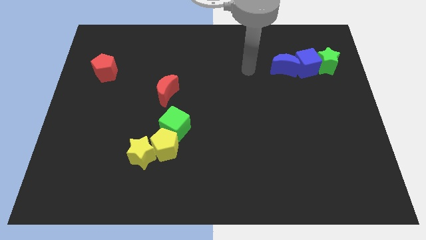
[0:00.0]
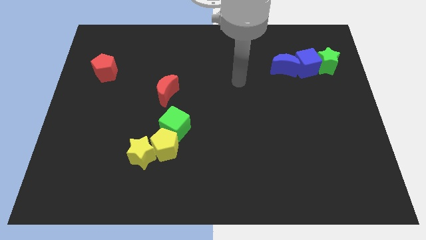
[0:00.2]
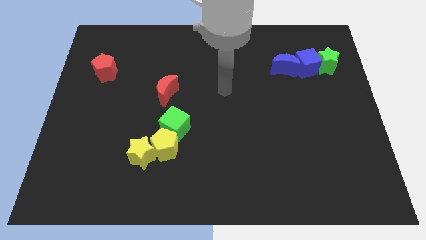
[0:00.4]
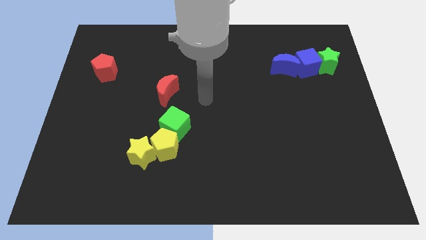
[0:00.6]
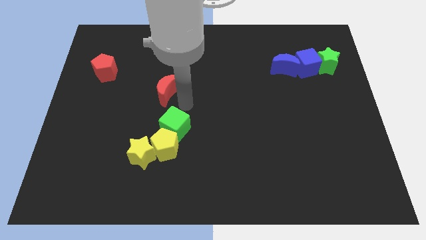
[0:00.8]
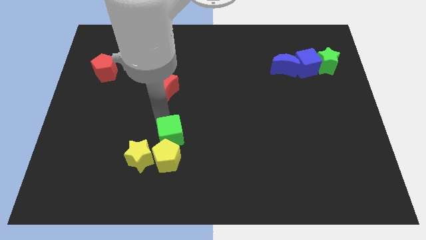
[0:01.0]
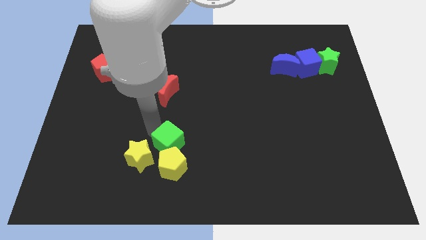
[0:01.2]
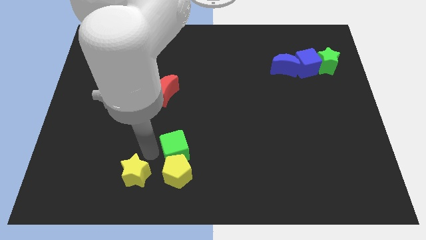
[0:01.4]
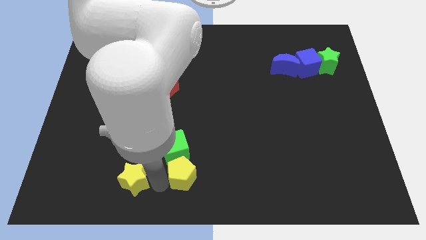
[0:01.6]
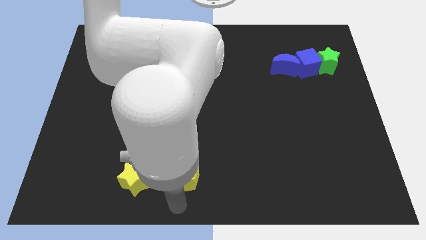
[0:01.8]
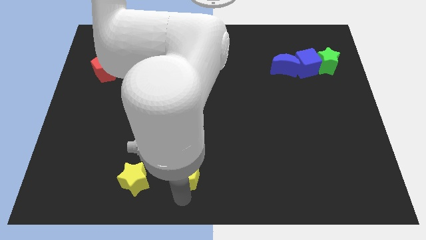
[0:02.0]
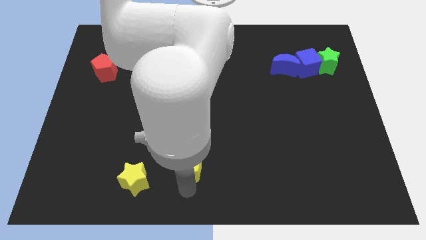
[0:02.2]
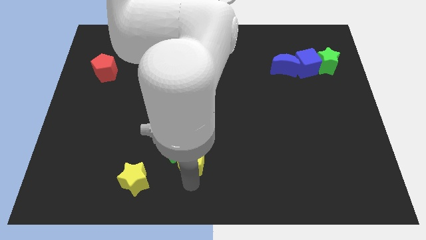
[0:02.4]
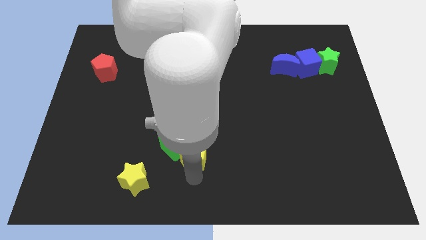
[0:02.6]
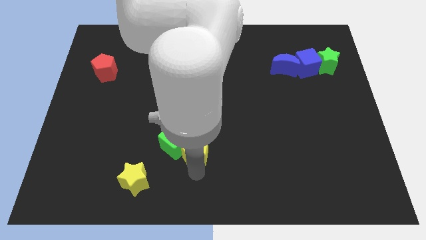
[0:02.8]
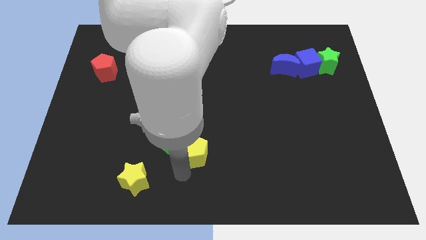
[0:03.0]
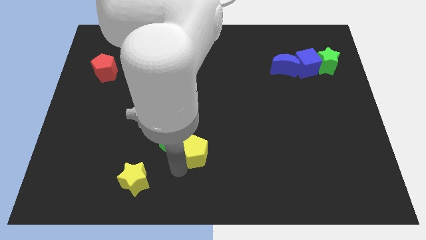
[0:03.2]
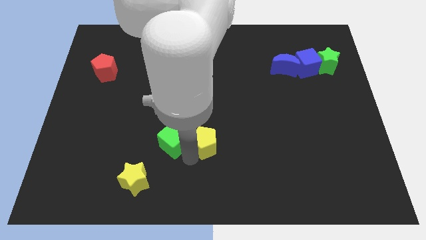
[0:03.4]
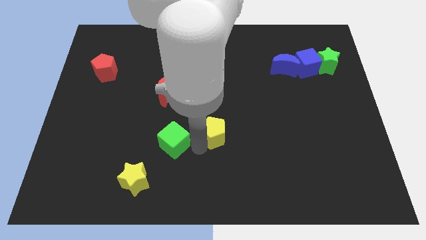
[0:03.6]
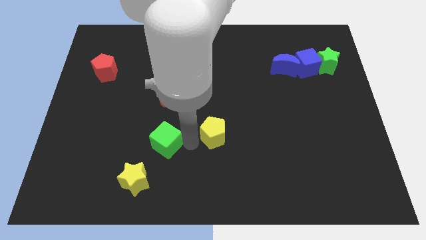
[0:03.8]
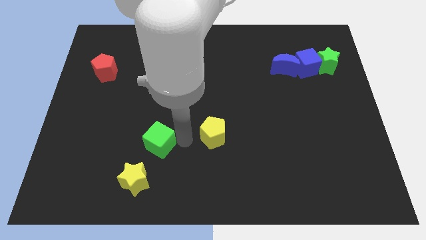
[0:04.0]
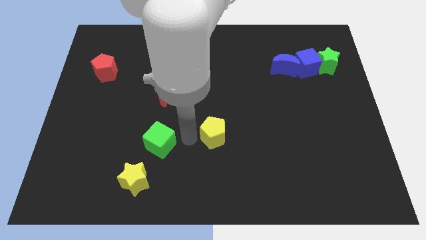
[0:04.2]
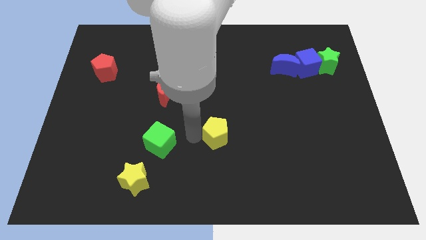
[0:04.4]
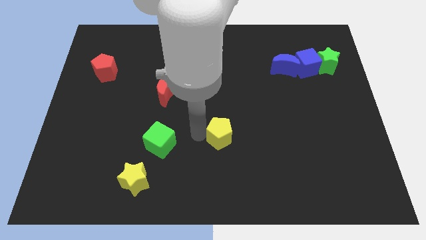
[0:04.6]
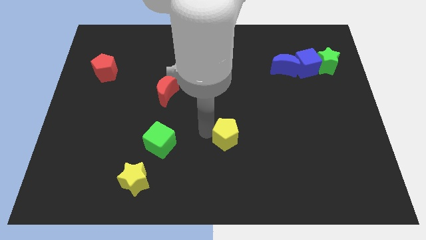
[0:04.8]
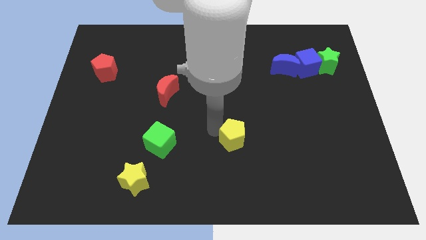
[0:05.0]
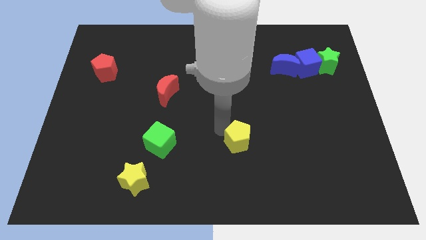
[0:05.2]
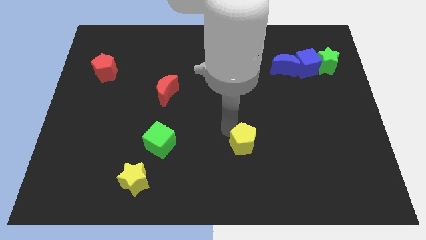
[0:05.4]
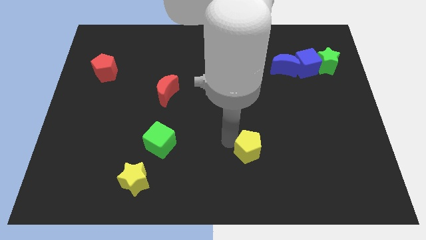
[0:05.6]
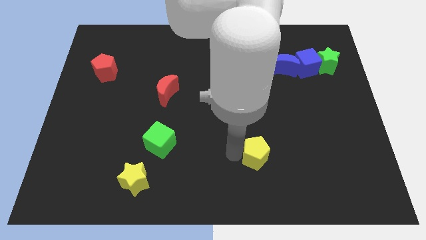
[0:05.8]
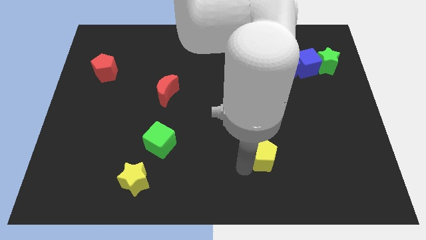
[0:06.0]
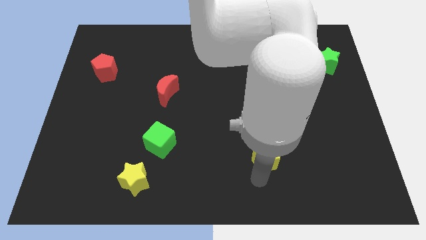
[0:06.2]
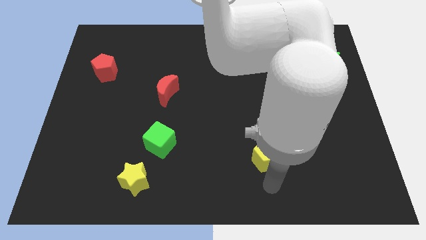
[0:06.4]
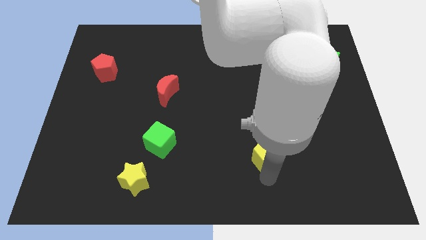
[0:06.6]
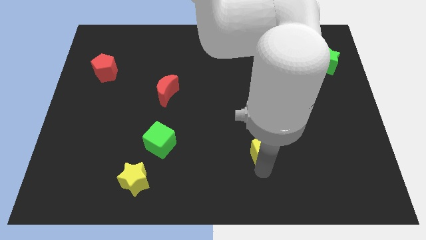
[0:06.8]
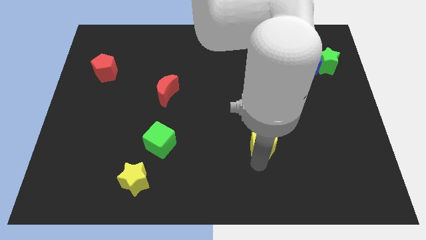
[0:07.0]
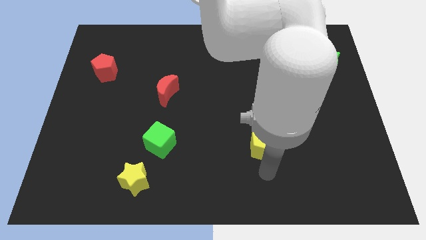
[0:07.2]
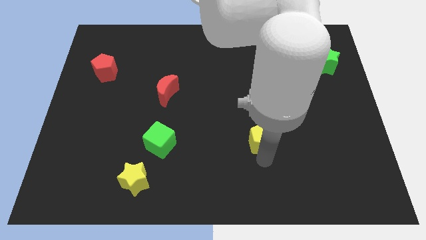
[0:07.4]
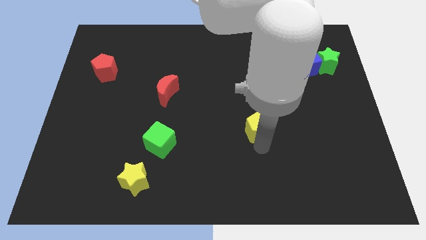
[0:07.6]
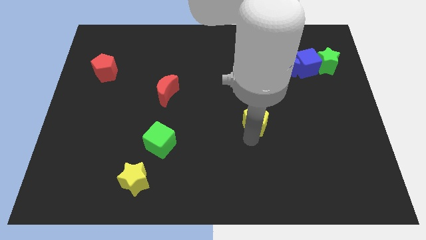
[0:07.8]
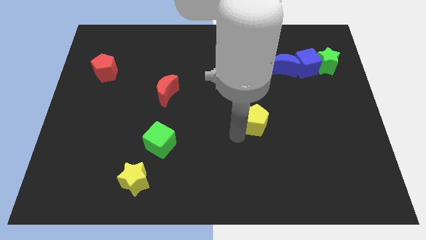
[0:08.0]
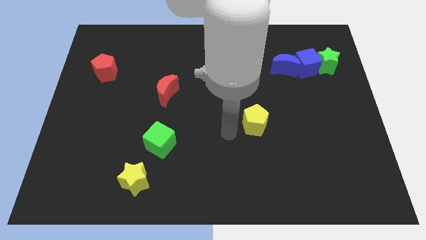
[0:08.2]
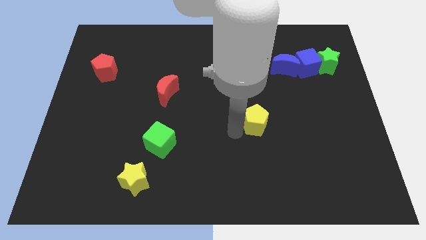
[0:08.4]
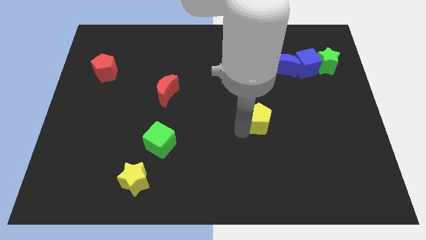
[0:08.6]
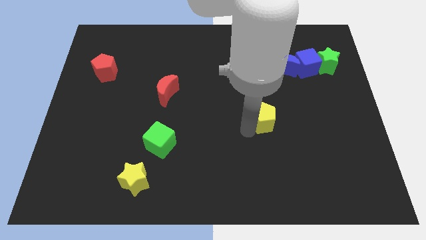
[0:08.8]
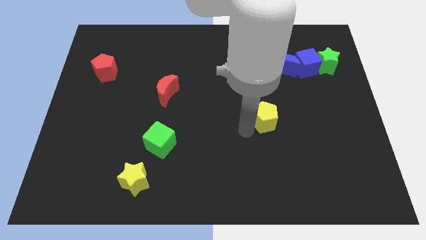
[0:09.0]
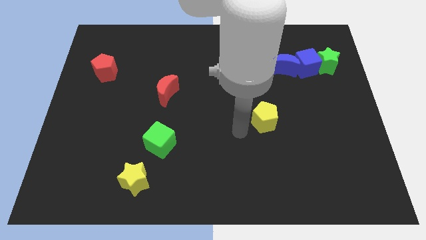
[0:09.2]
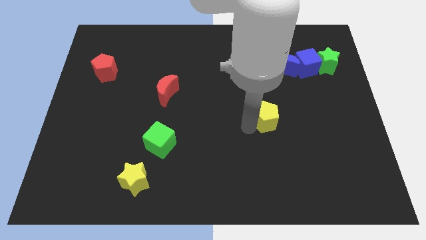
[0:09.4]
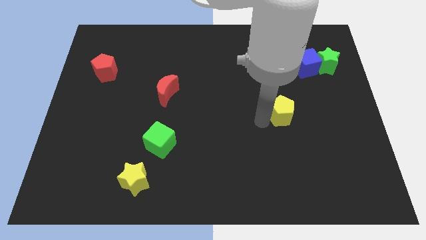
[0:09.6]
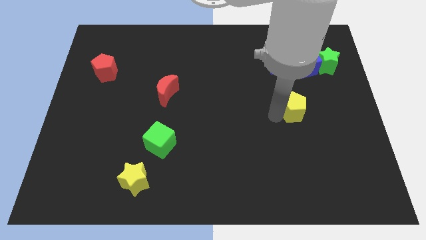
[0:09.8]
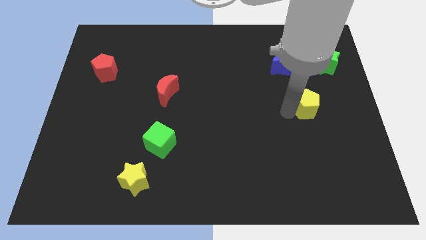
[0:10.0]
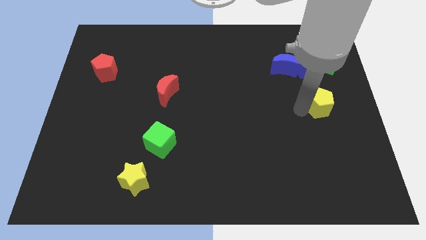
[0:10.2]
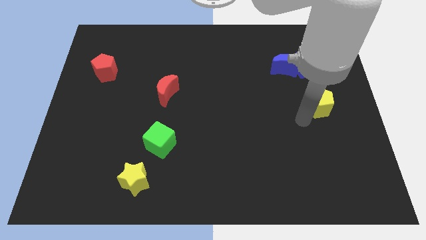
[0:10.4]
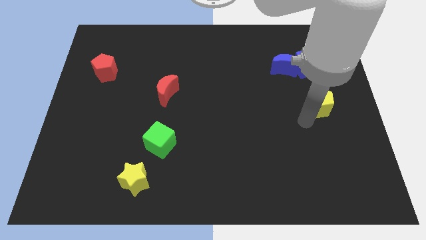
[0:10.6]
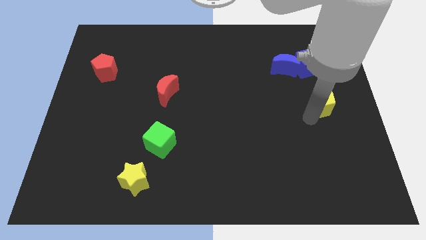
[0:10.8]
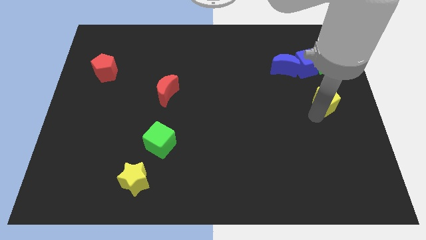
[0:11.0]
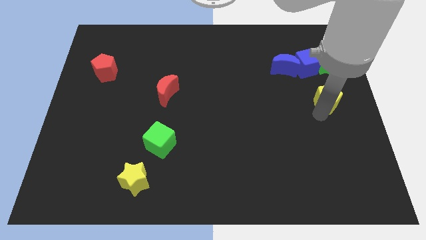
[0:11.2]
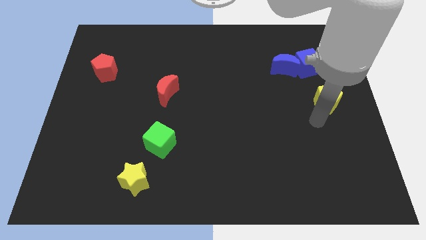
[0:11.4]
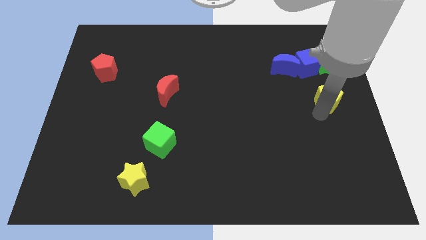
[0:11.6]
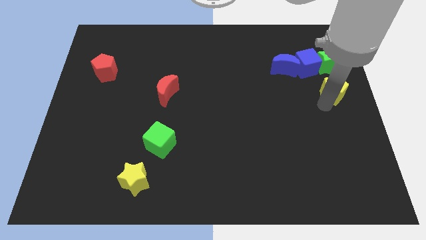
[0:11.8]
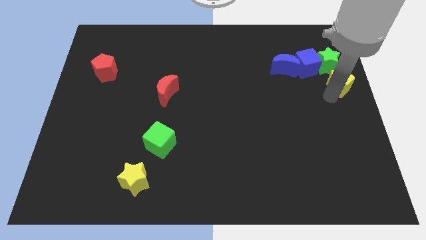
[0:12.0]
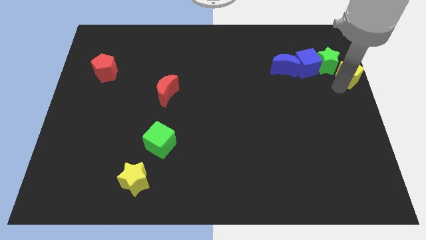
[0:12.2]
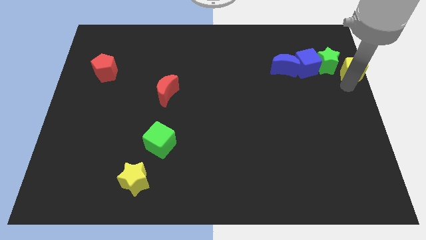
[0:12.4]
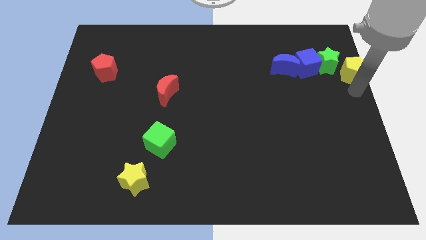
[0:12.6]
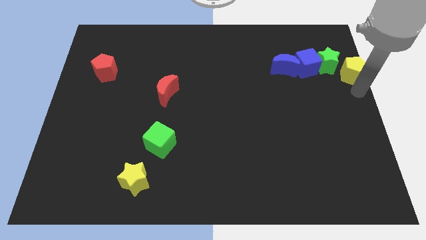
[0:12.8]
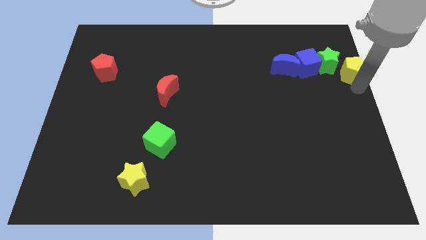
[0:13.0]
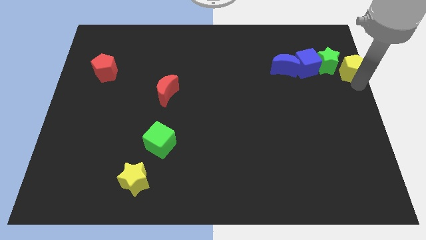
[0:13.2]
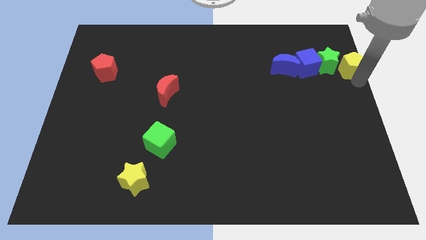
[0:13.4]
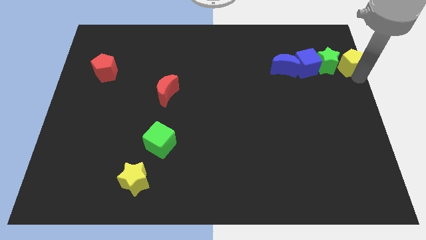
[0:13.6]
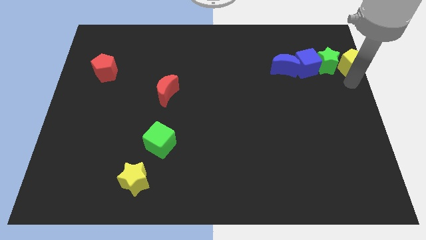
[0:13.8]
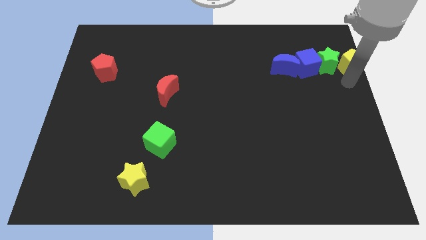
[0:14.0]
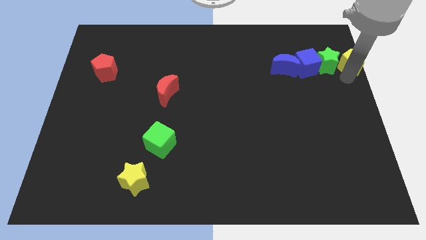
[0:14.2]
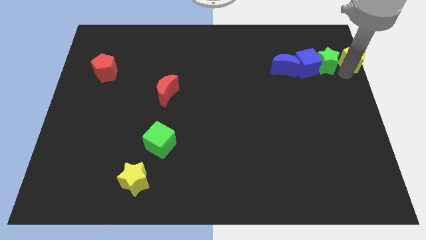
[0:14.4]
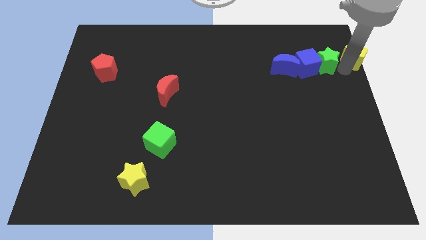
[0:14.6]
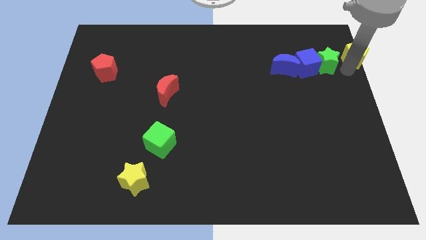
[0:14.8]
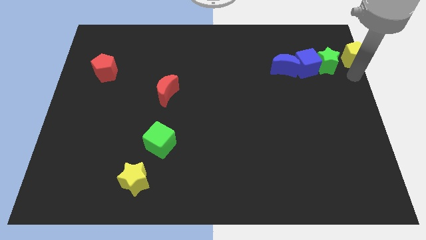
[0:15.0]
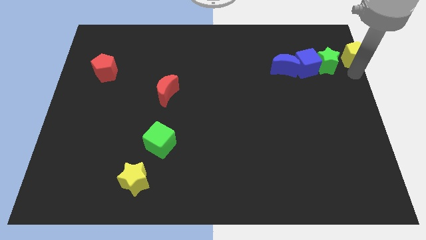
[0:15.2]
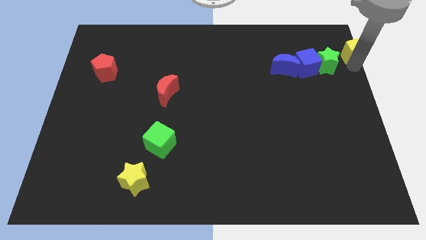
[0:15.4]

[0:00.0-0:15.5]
move the yellow pentagon to the upper right corner
